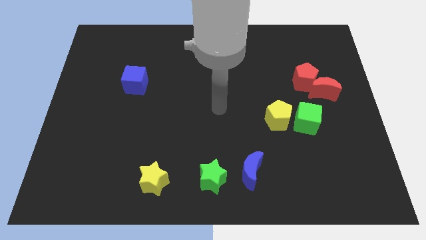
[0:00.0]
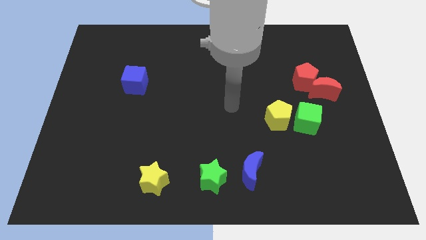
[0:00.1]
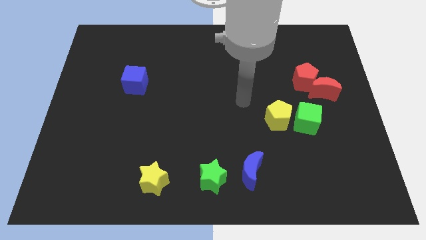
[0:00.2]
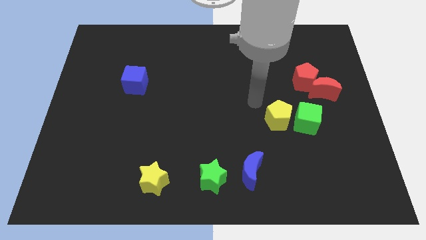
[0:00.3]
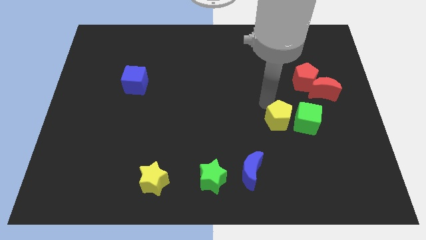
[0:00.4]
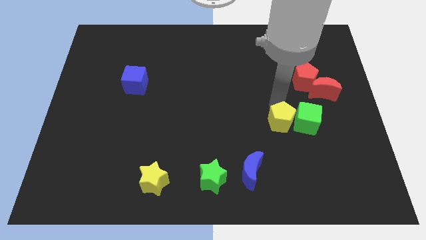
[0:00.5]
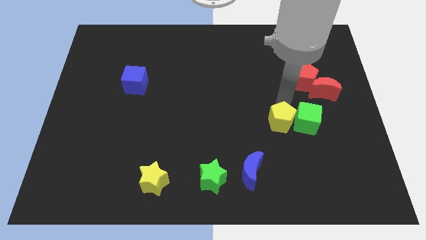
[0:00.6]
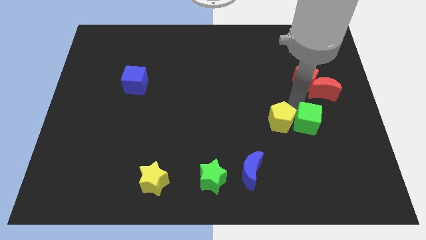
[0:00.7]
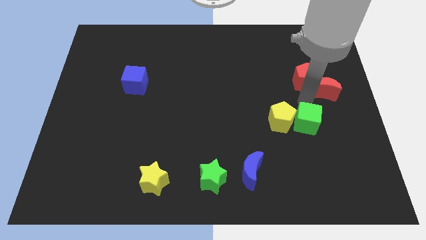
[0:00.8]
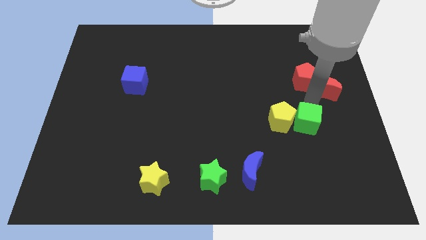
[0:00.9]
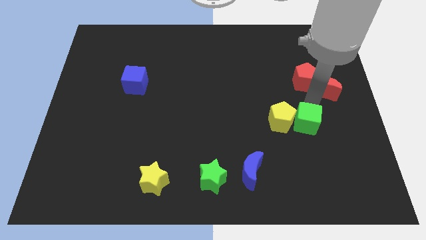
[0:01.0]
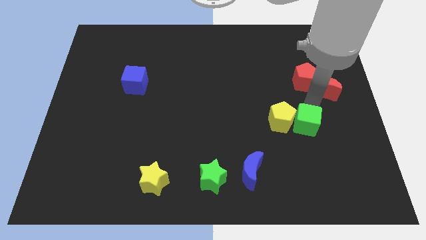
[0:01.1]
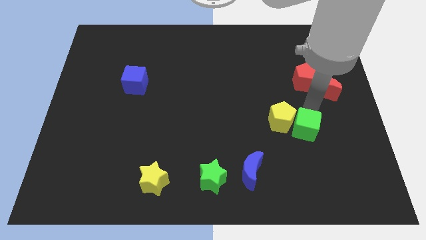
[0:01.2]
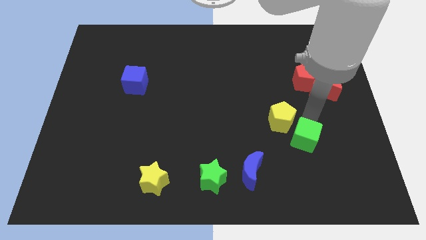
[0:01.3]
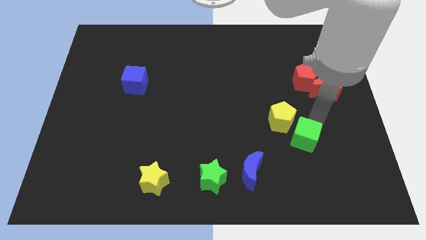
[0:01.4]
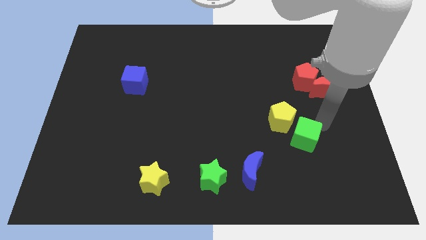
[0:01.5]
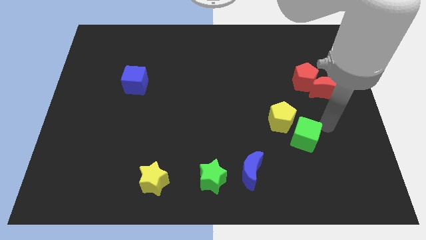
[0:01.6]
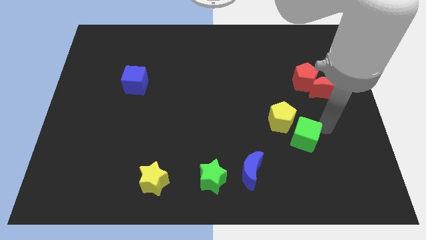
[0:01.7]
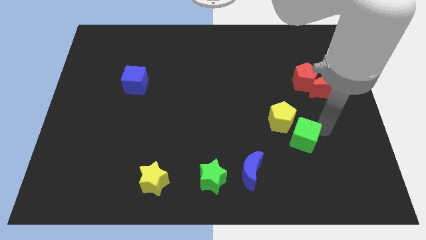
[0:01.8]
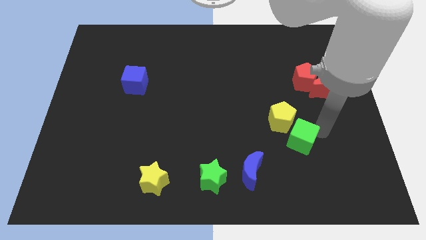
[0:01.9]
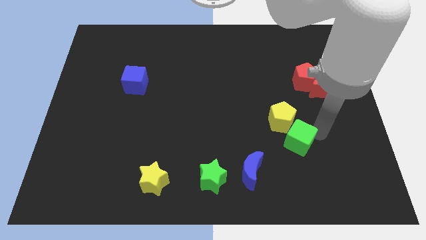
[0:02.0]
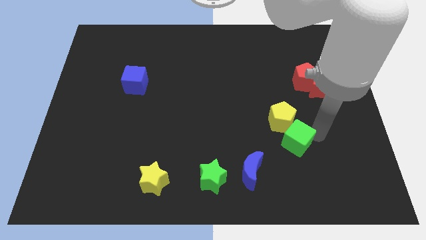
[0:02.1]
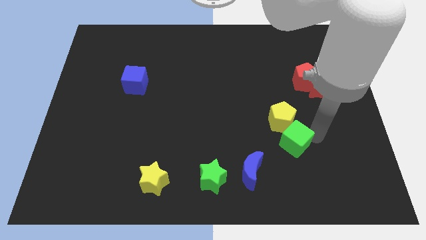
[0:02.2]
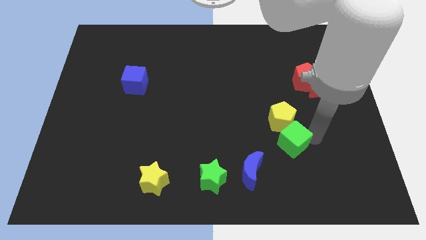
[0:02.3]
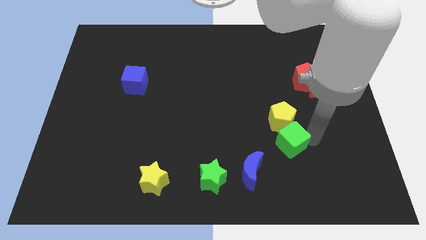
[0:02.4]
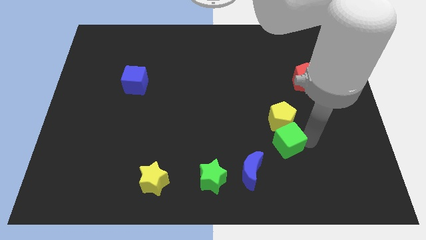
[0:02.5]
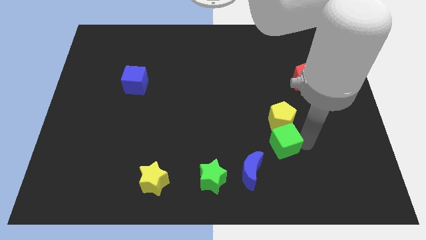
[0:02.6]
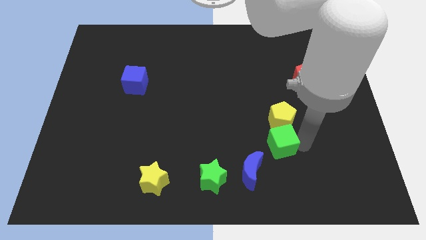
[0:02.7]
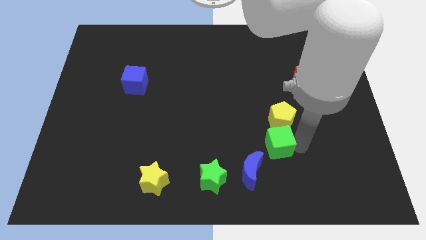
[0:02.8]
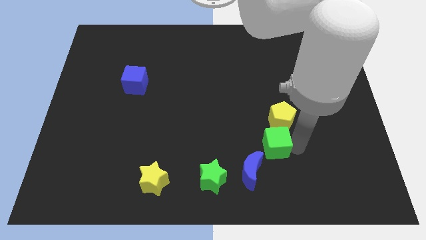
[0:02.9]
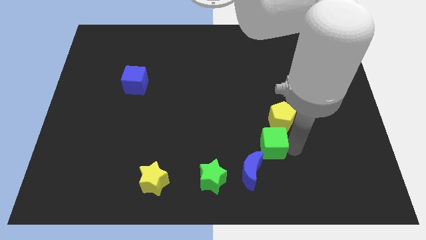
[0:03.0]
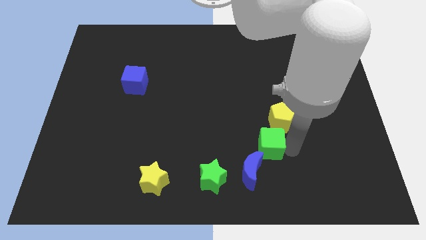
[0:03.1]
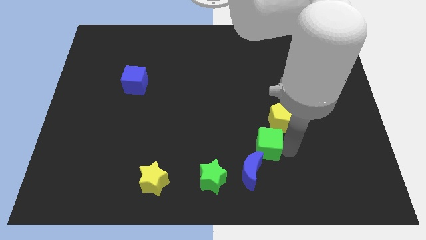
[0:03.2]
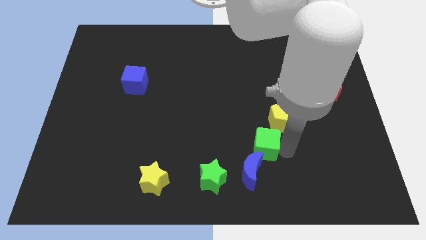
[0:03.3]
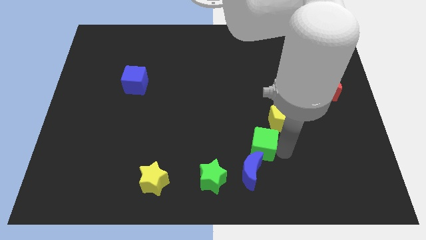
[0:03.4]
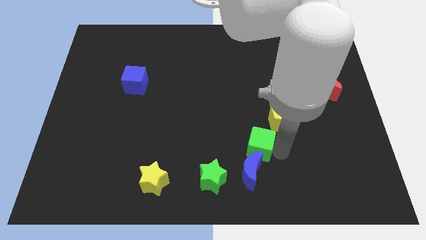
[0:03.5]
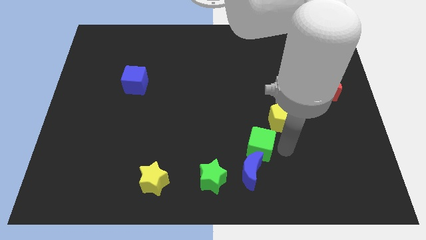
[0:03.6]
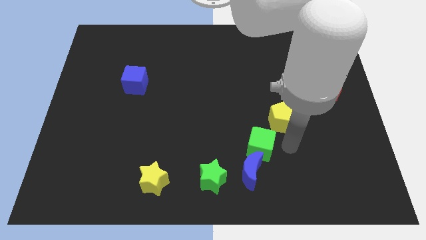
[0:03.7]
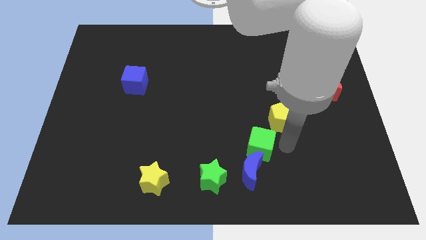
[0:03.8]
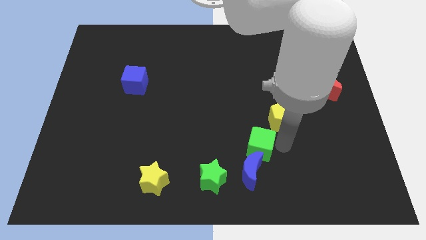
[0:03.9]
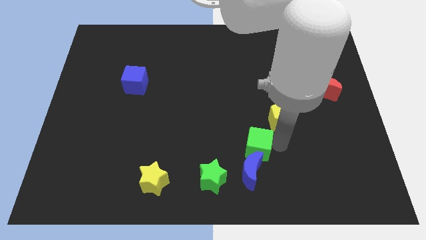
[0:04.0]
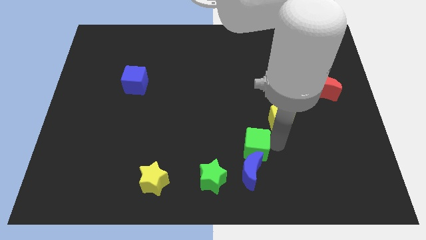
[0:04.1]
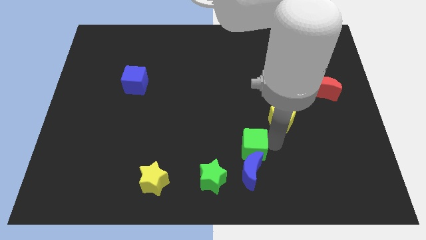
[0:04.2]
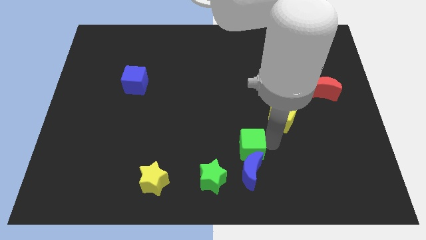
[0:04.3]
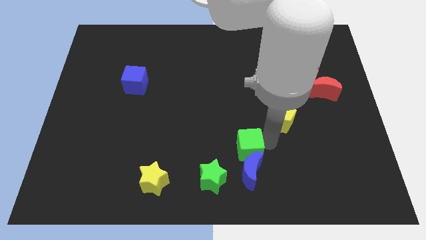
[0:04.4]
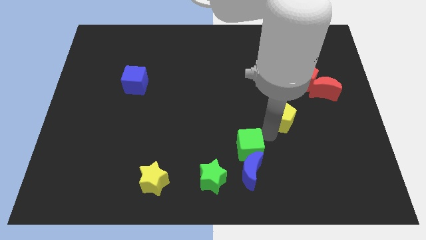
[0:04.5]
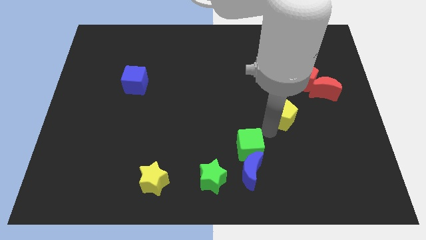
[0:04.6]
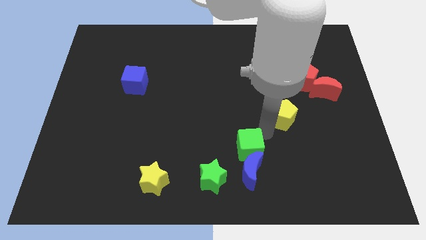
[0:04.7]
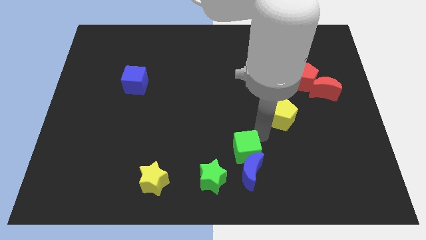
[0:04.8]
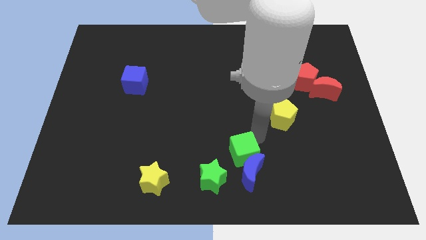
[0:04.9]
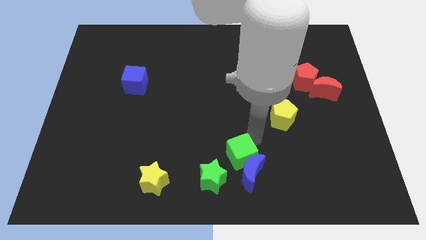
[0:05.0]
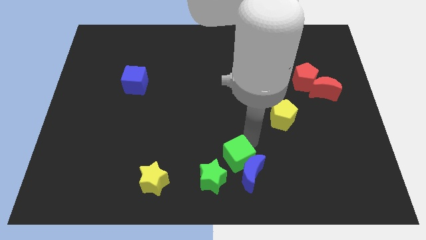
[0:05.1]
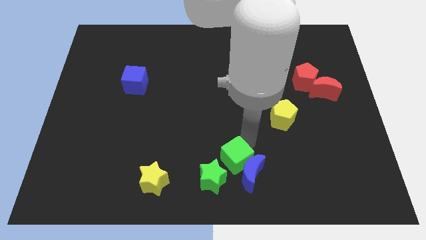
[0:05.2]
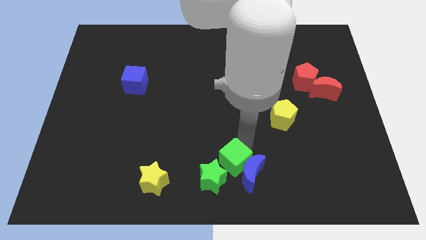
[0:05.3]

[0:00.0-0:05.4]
move the green cube to the green star
